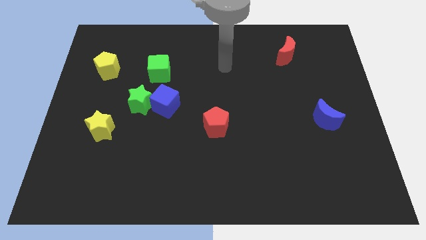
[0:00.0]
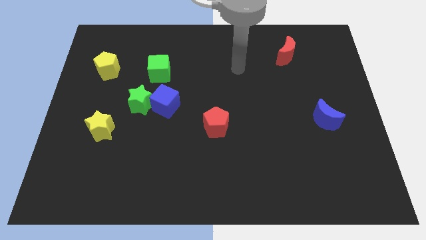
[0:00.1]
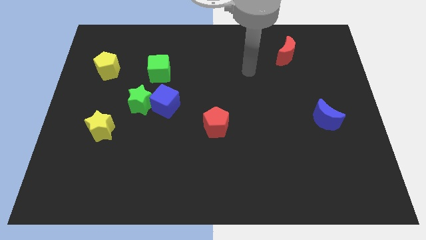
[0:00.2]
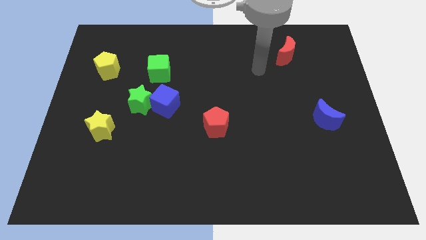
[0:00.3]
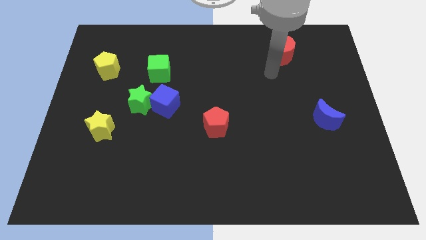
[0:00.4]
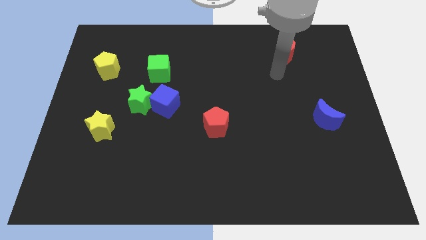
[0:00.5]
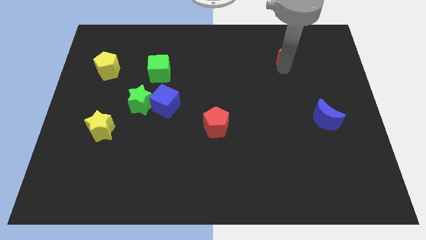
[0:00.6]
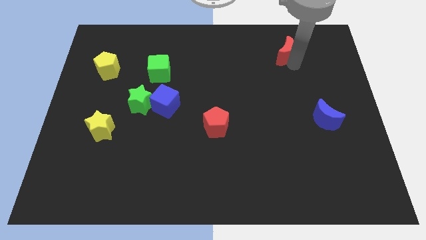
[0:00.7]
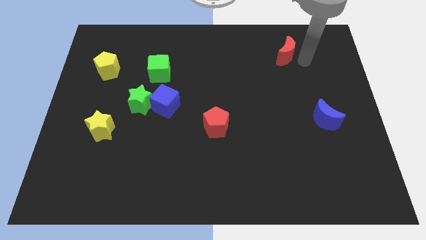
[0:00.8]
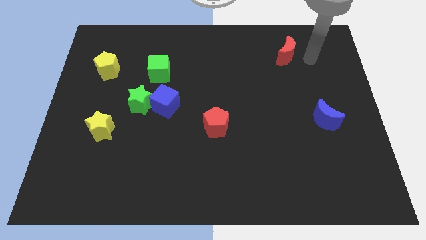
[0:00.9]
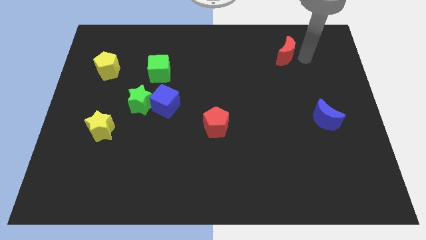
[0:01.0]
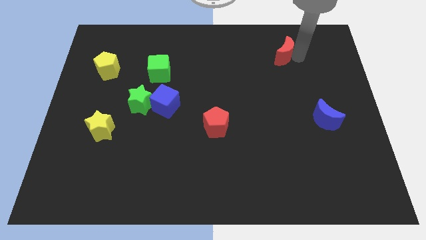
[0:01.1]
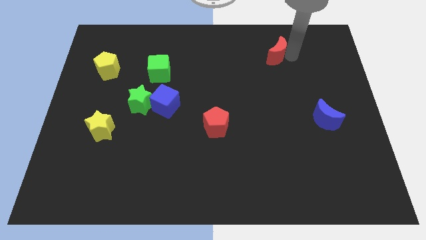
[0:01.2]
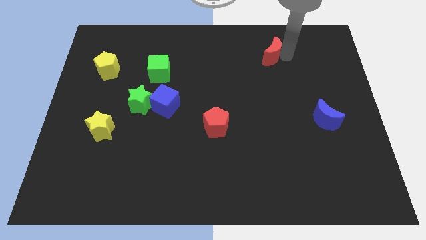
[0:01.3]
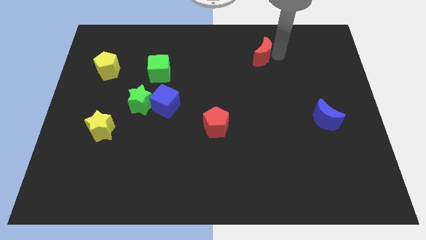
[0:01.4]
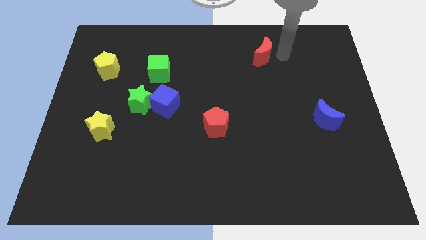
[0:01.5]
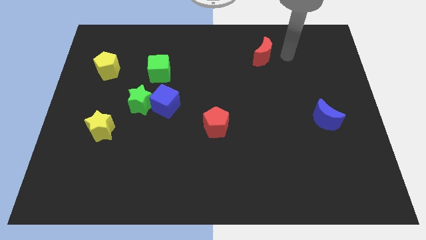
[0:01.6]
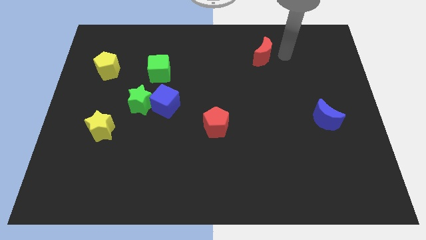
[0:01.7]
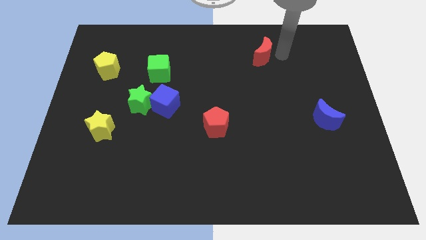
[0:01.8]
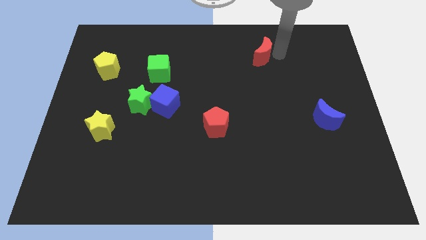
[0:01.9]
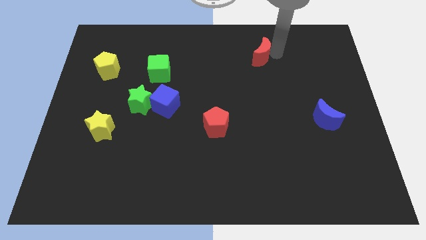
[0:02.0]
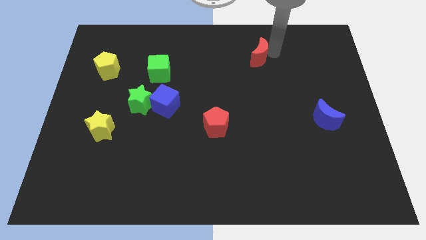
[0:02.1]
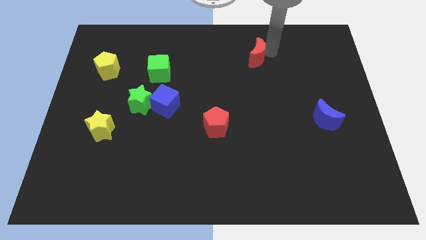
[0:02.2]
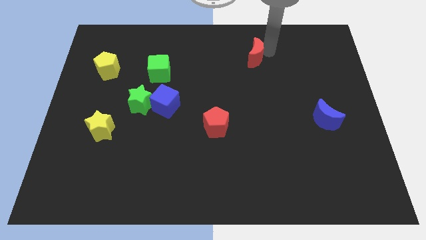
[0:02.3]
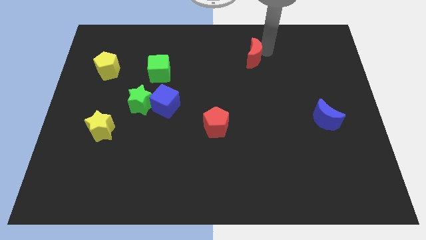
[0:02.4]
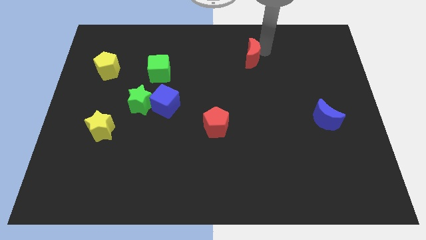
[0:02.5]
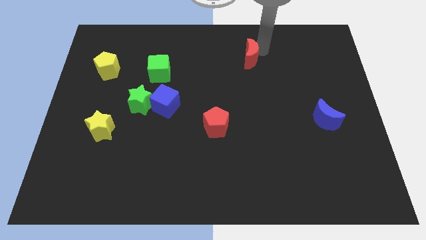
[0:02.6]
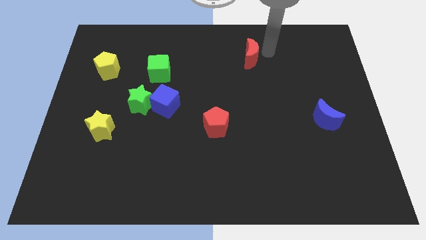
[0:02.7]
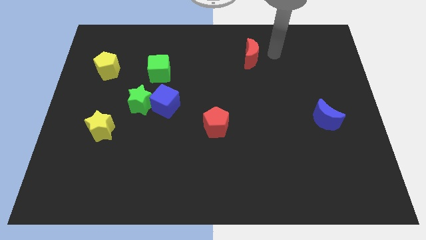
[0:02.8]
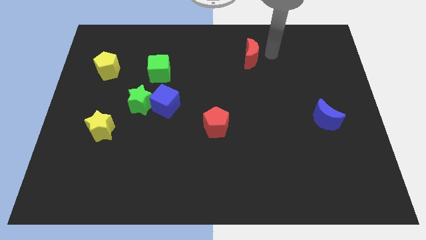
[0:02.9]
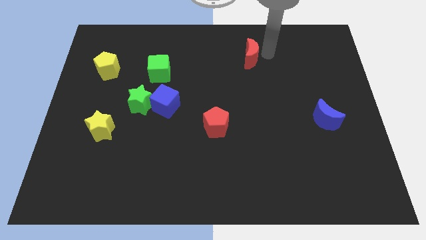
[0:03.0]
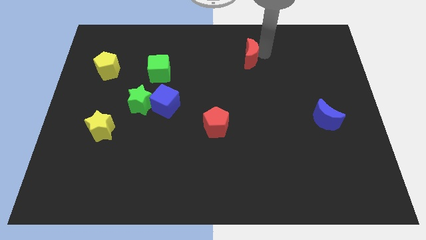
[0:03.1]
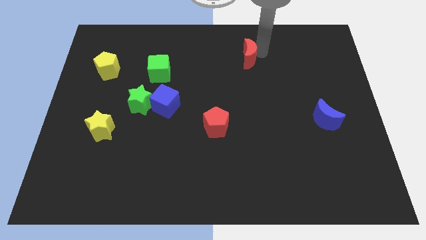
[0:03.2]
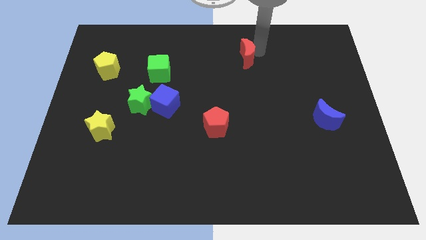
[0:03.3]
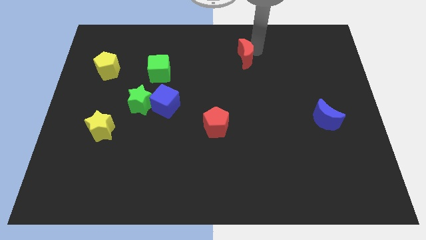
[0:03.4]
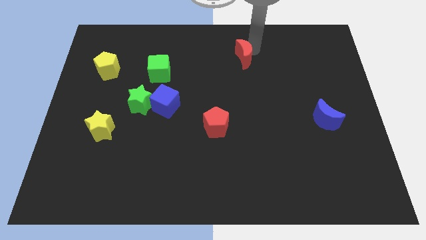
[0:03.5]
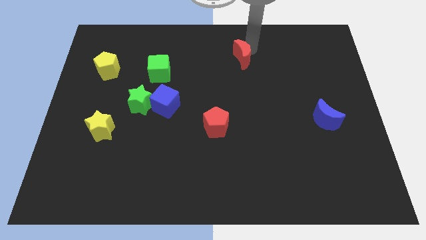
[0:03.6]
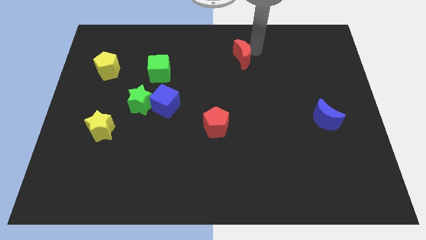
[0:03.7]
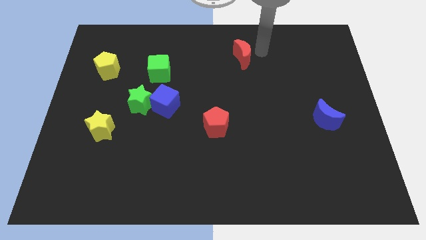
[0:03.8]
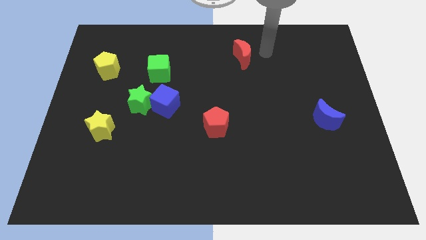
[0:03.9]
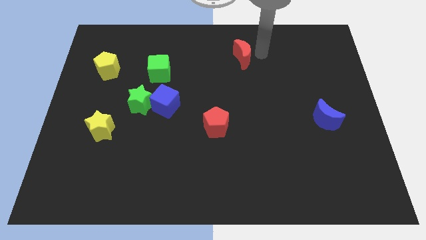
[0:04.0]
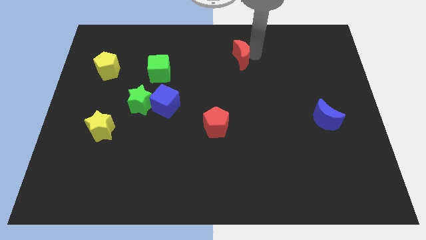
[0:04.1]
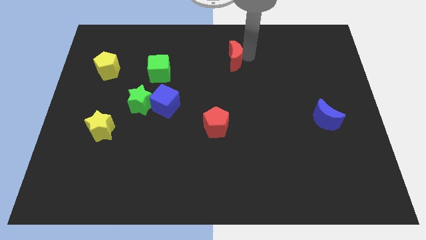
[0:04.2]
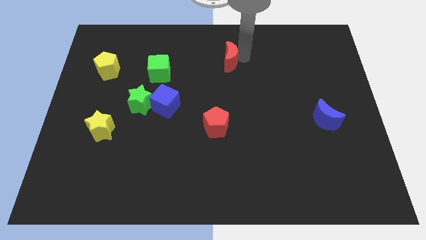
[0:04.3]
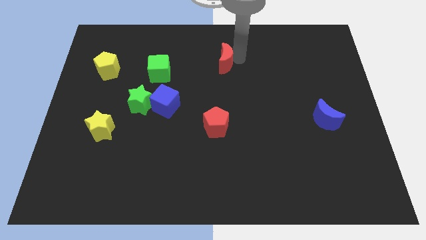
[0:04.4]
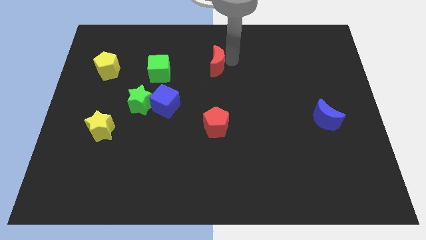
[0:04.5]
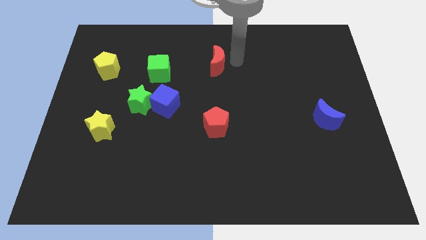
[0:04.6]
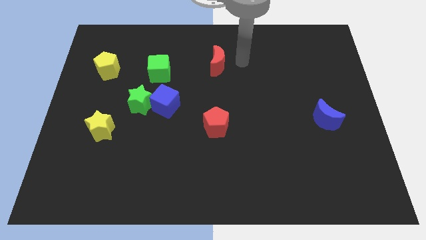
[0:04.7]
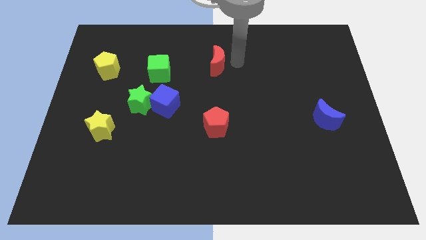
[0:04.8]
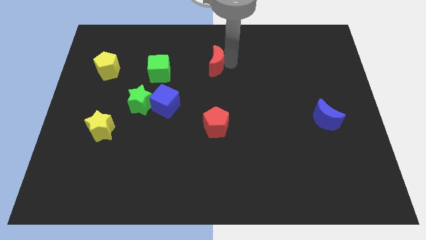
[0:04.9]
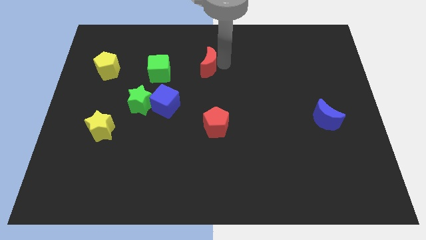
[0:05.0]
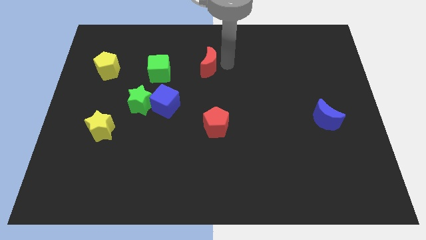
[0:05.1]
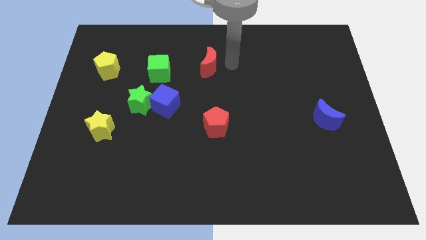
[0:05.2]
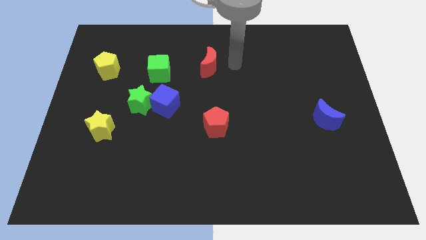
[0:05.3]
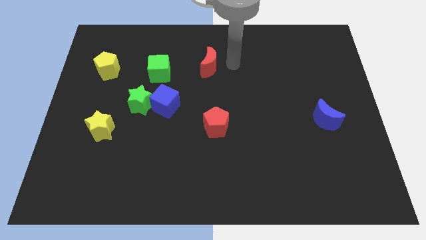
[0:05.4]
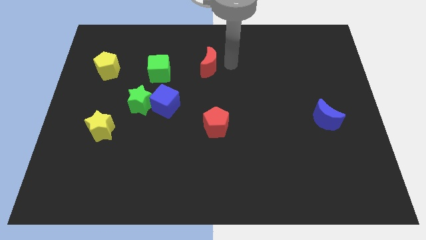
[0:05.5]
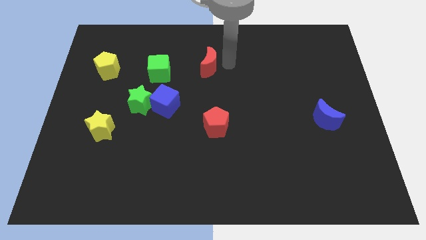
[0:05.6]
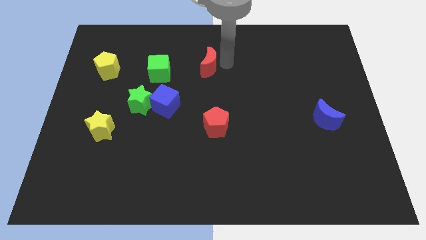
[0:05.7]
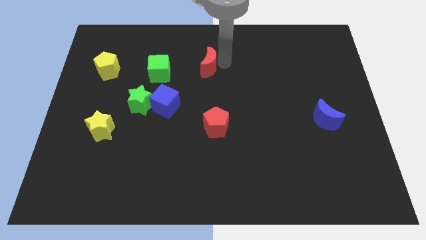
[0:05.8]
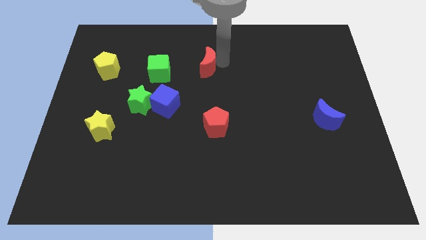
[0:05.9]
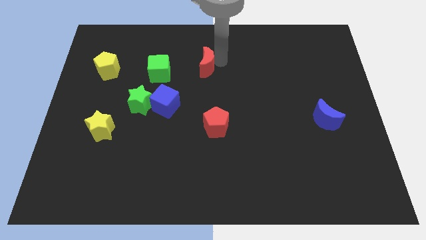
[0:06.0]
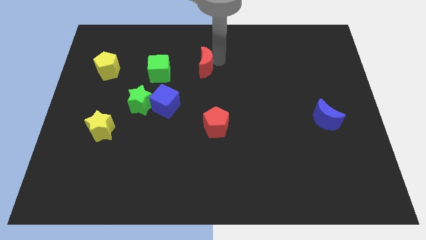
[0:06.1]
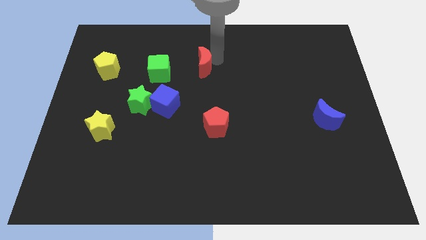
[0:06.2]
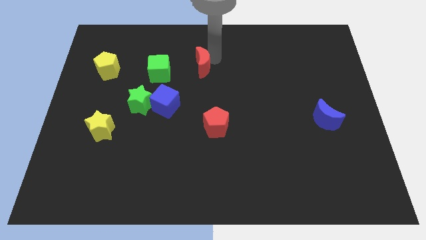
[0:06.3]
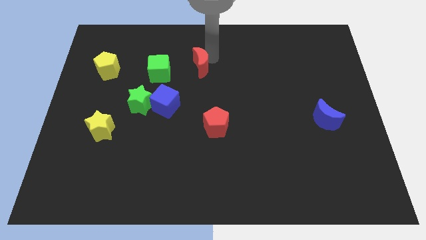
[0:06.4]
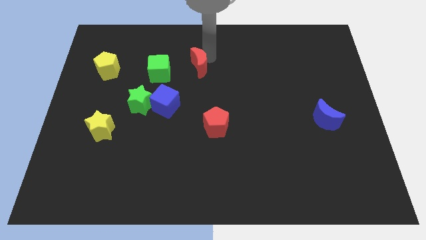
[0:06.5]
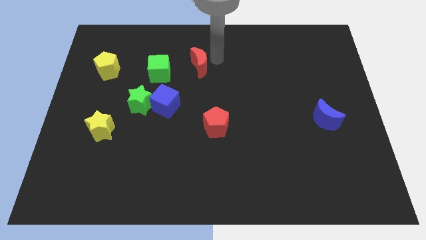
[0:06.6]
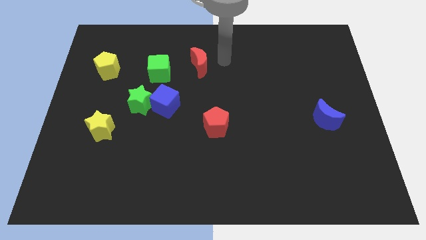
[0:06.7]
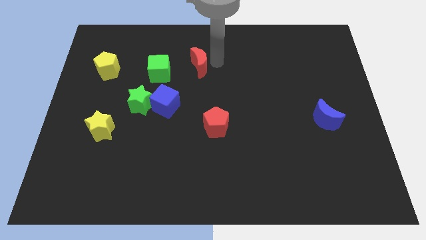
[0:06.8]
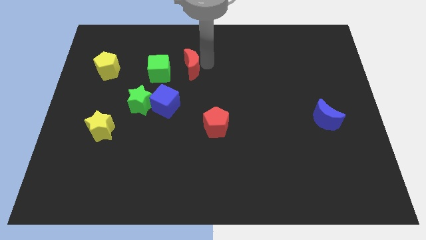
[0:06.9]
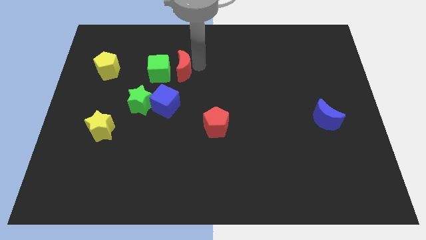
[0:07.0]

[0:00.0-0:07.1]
slide the red moon close to the green cube
